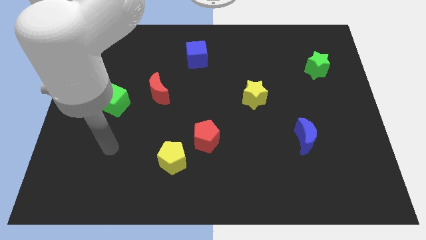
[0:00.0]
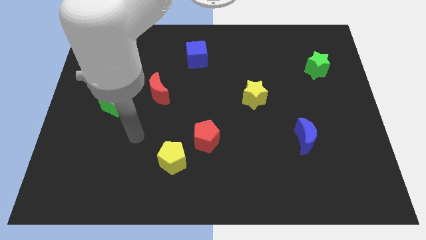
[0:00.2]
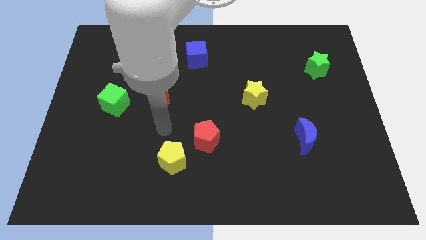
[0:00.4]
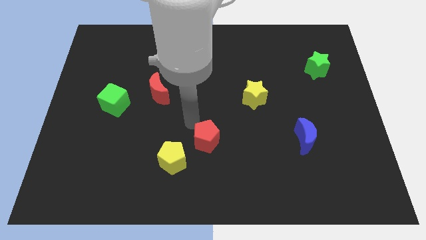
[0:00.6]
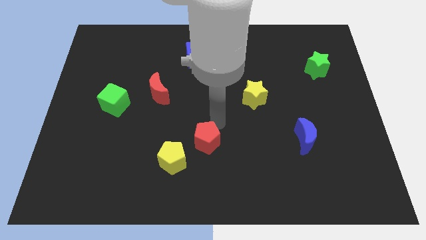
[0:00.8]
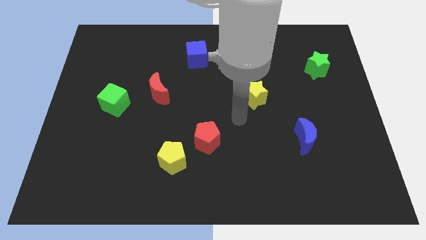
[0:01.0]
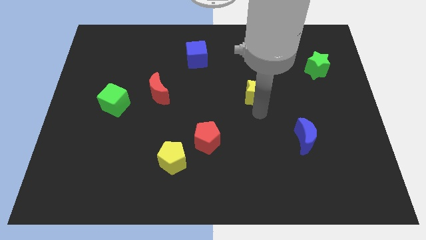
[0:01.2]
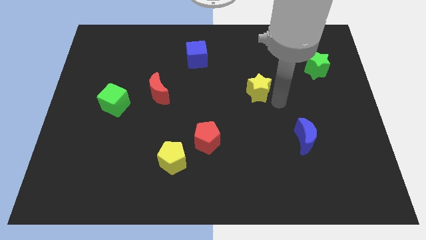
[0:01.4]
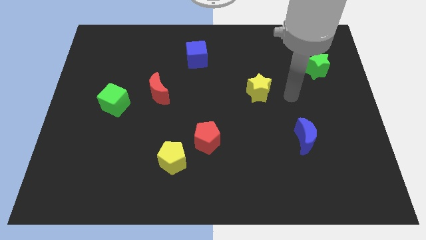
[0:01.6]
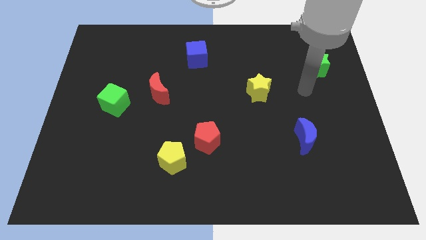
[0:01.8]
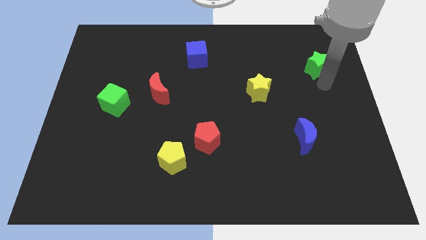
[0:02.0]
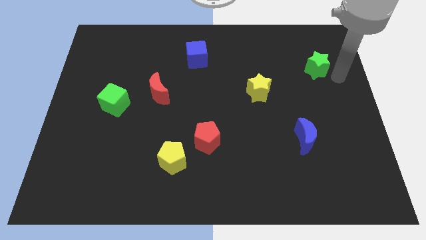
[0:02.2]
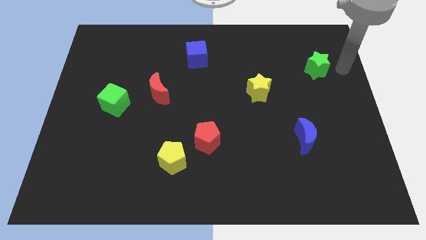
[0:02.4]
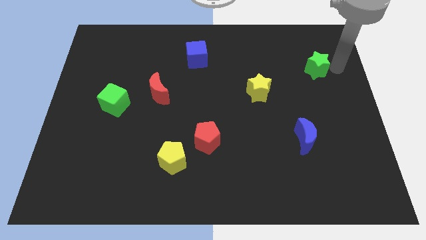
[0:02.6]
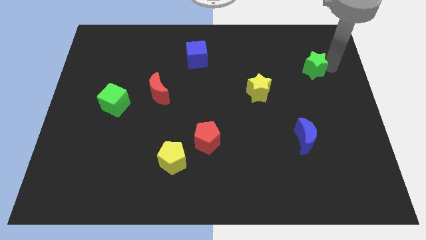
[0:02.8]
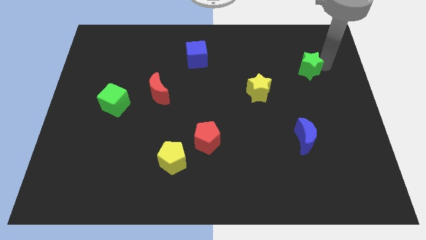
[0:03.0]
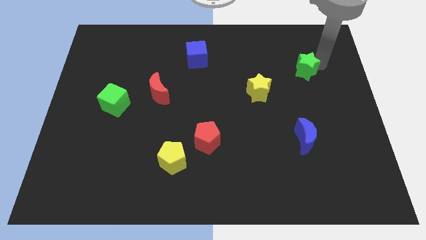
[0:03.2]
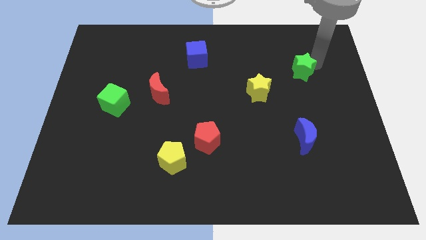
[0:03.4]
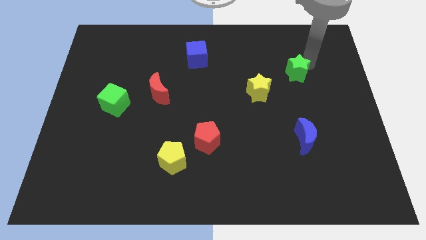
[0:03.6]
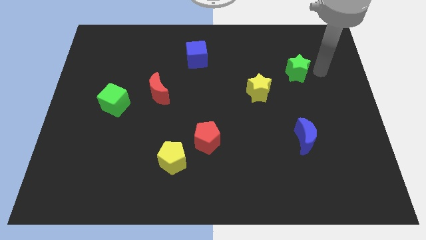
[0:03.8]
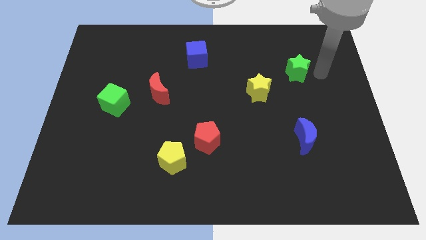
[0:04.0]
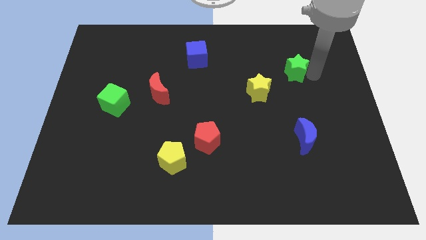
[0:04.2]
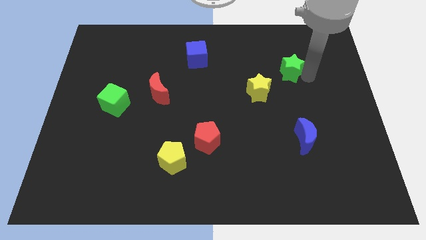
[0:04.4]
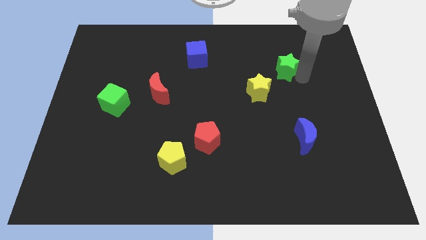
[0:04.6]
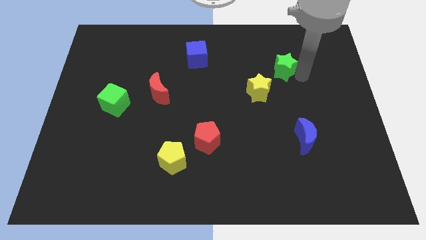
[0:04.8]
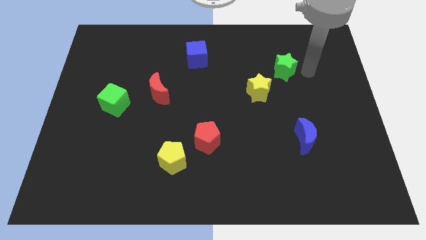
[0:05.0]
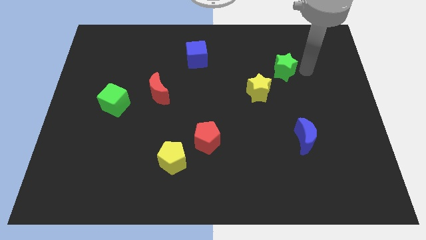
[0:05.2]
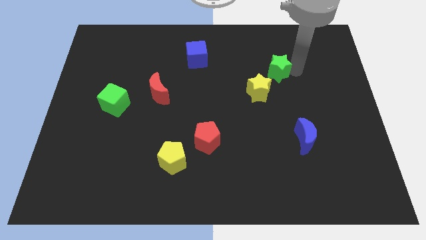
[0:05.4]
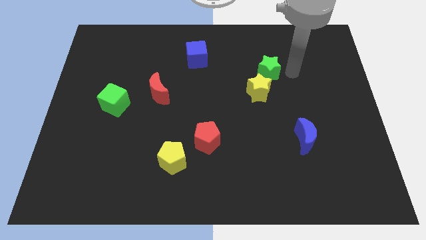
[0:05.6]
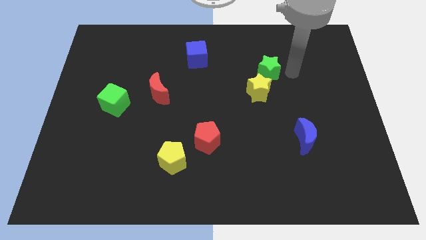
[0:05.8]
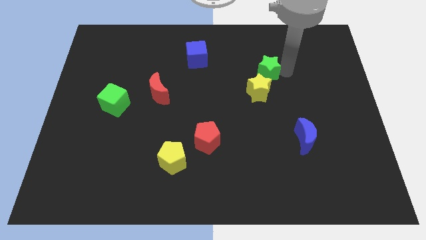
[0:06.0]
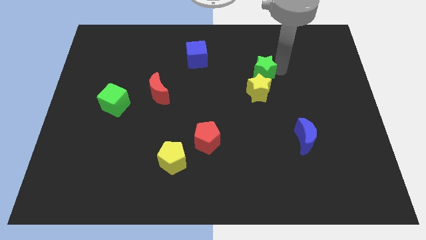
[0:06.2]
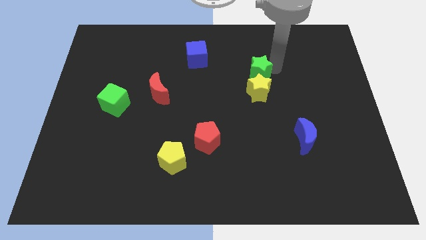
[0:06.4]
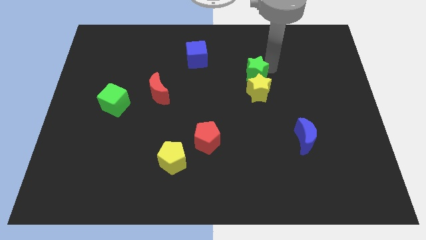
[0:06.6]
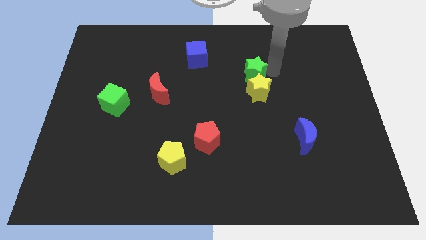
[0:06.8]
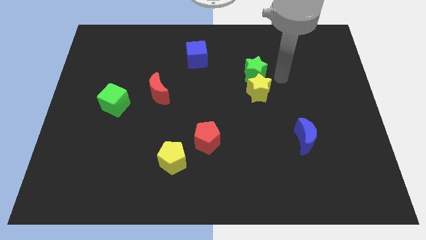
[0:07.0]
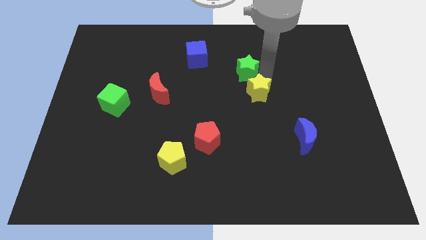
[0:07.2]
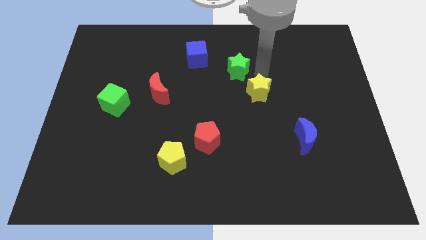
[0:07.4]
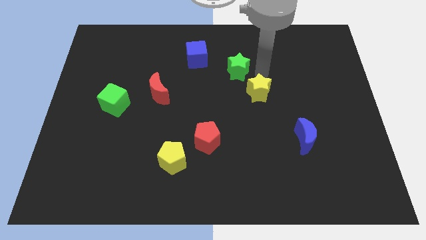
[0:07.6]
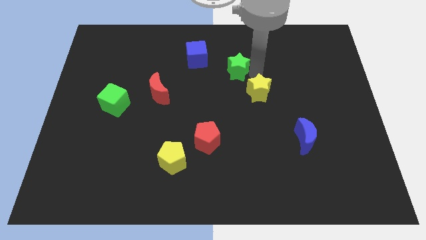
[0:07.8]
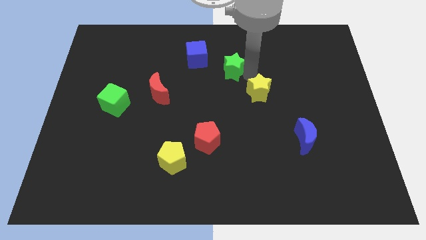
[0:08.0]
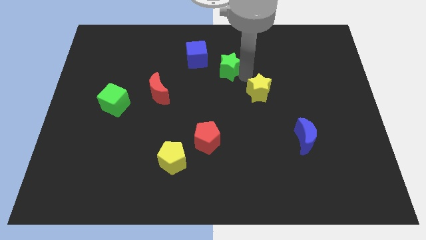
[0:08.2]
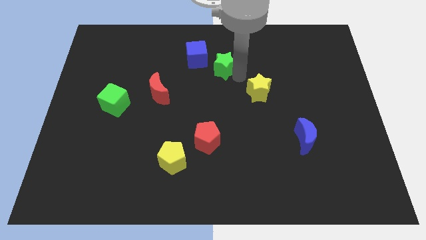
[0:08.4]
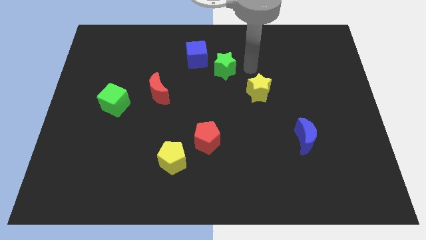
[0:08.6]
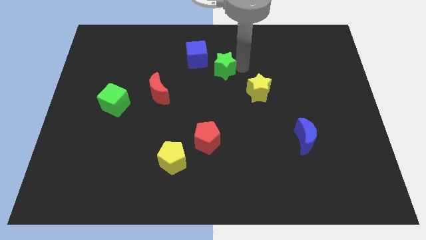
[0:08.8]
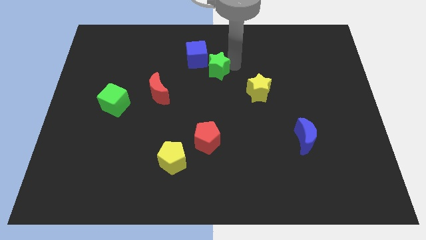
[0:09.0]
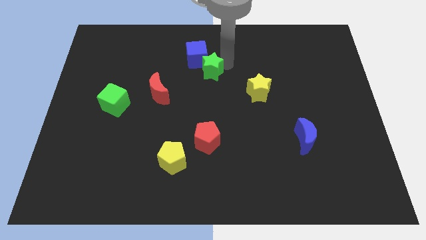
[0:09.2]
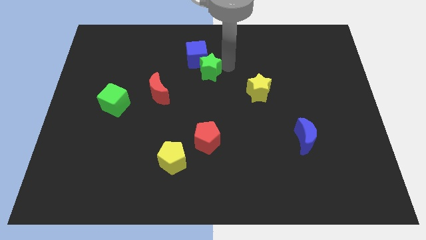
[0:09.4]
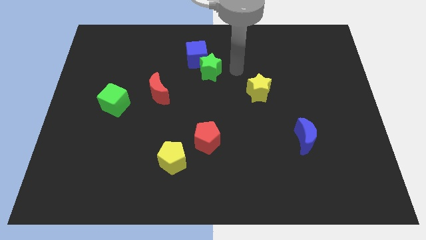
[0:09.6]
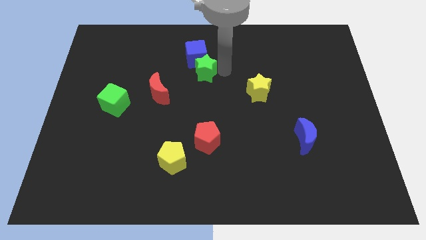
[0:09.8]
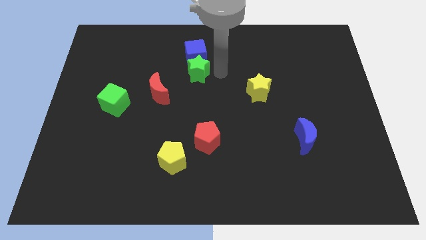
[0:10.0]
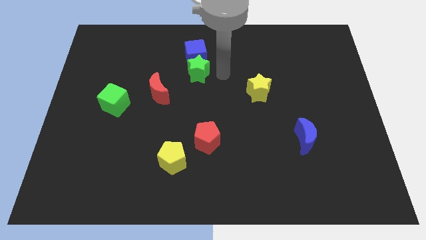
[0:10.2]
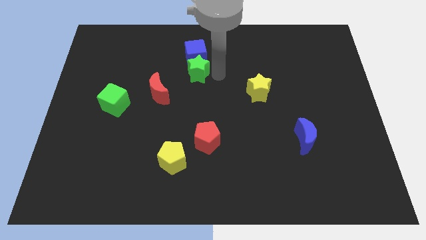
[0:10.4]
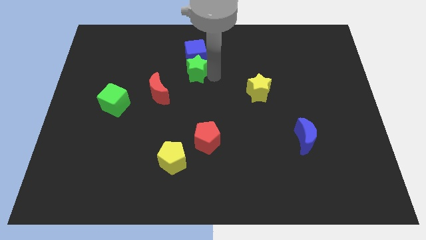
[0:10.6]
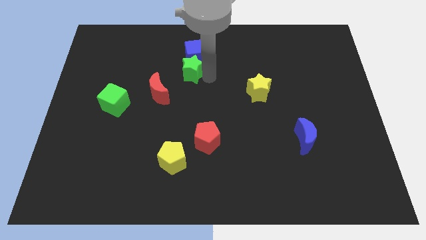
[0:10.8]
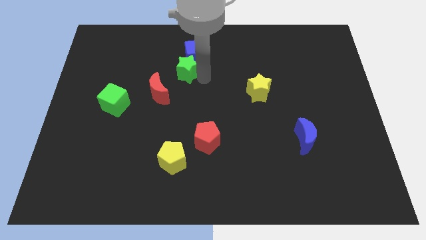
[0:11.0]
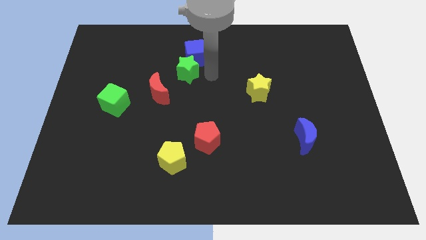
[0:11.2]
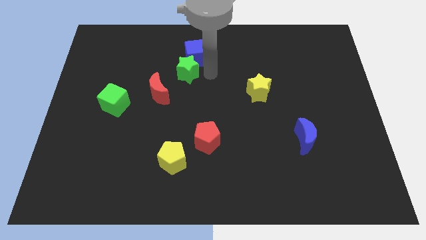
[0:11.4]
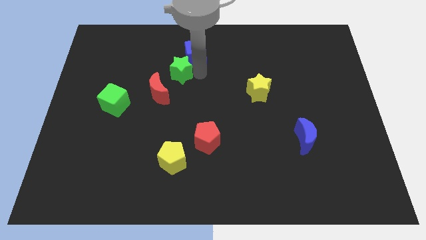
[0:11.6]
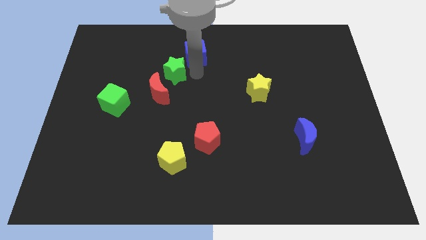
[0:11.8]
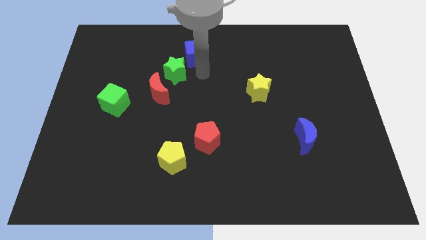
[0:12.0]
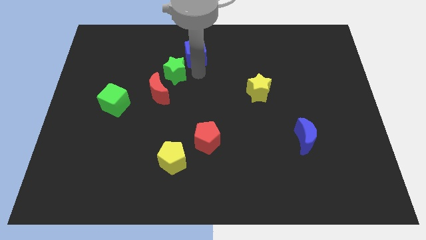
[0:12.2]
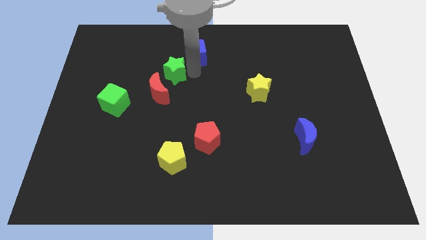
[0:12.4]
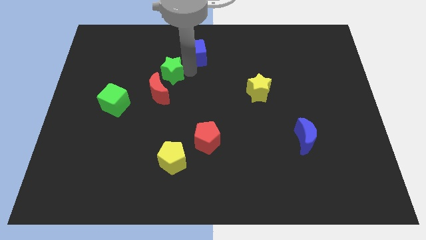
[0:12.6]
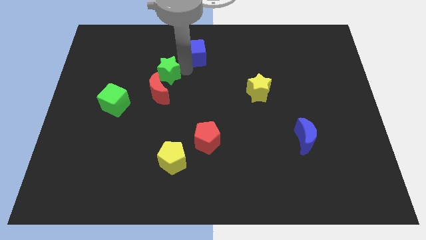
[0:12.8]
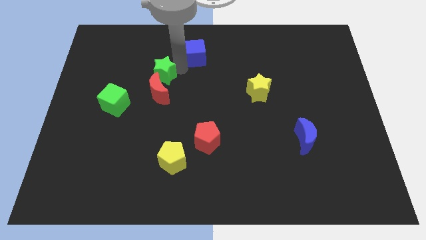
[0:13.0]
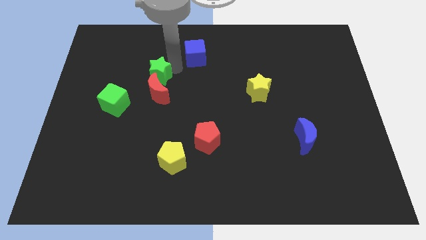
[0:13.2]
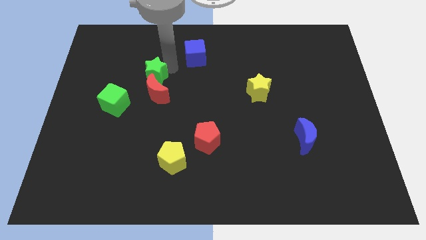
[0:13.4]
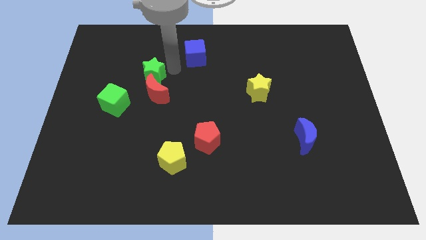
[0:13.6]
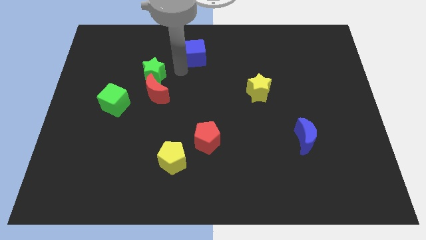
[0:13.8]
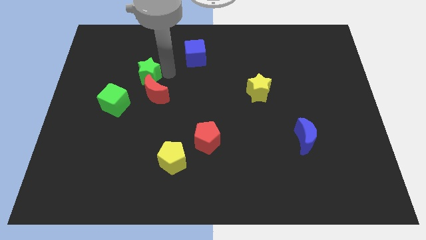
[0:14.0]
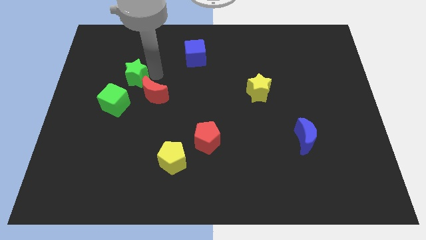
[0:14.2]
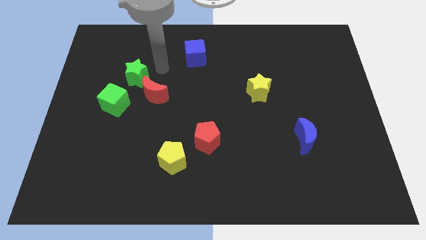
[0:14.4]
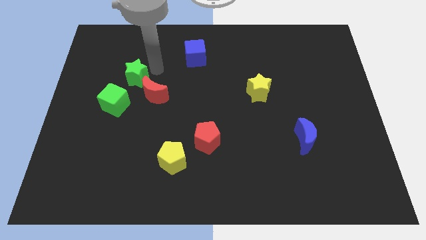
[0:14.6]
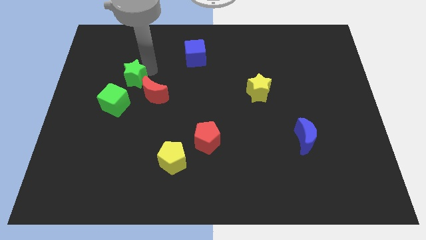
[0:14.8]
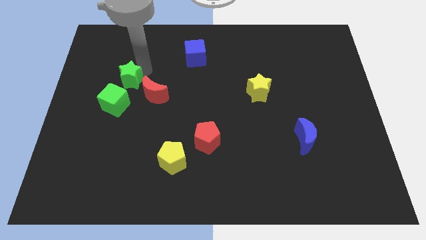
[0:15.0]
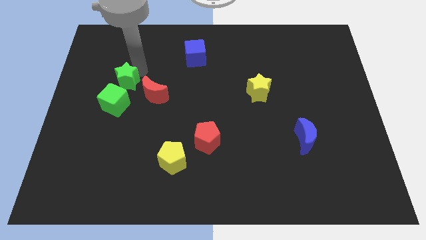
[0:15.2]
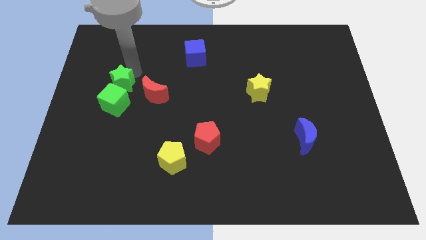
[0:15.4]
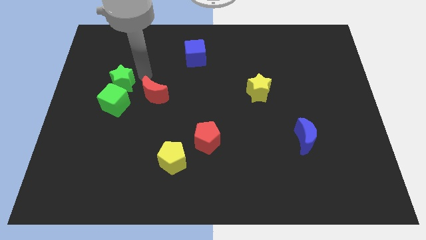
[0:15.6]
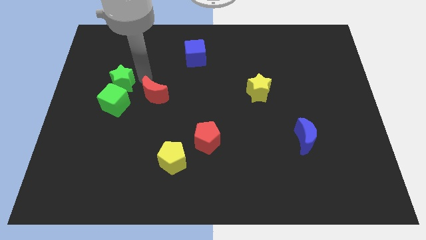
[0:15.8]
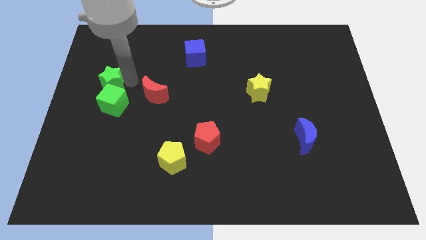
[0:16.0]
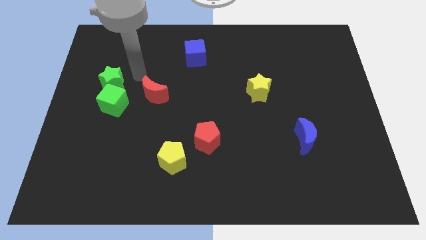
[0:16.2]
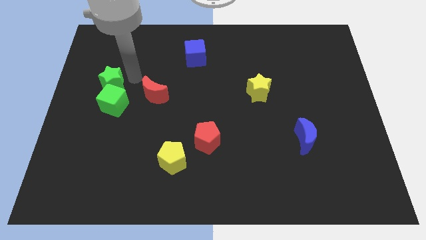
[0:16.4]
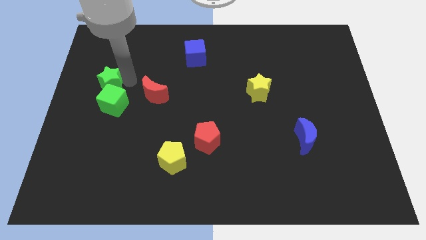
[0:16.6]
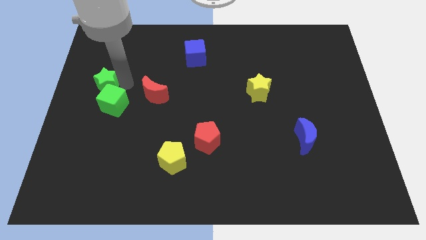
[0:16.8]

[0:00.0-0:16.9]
slide the green star to the left side of the board
